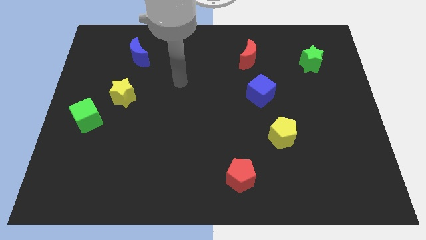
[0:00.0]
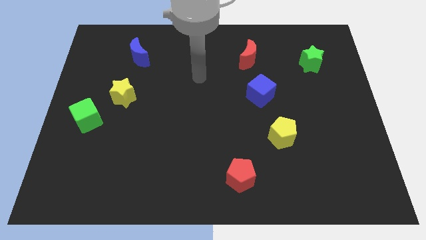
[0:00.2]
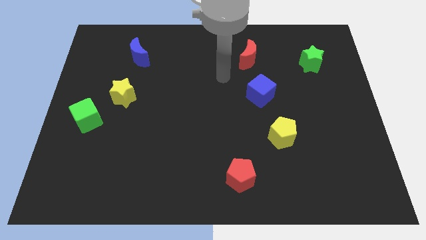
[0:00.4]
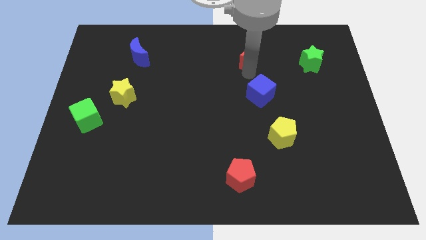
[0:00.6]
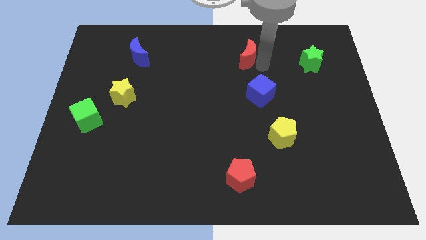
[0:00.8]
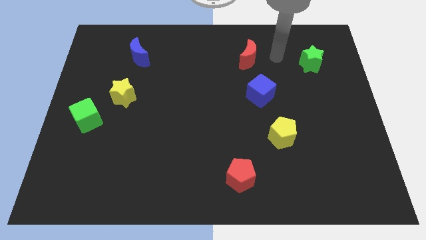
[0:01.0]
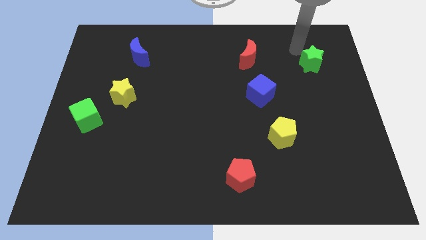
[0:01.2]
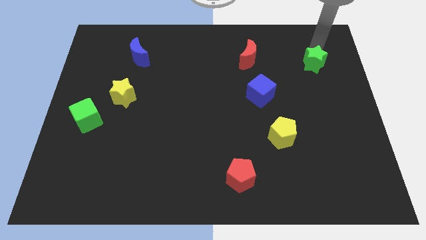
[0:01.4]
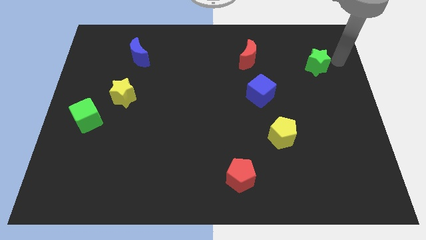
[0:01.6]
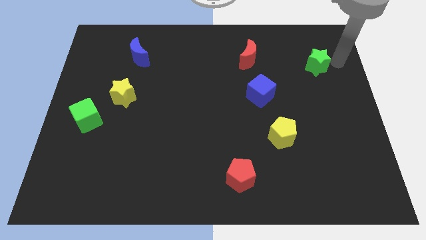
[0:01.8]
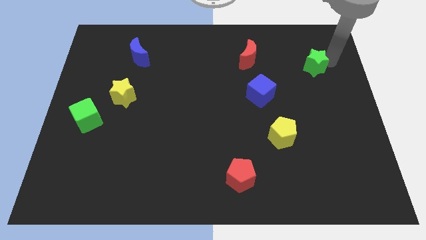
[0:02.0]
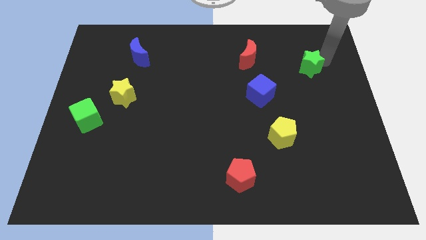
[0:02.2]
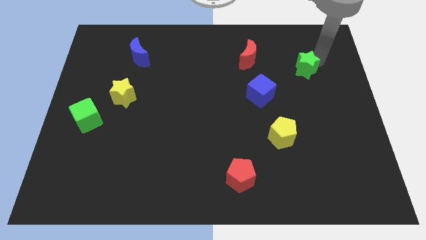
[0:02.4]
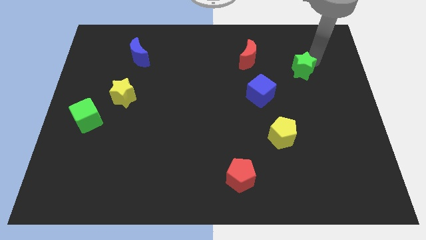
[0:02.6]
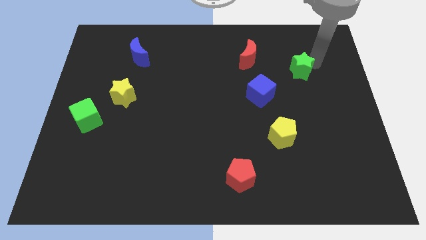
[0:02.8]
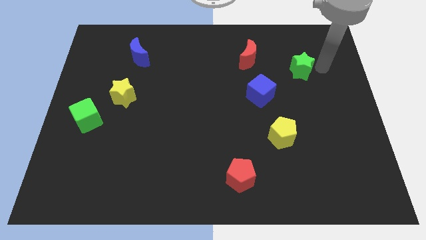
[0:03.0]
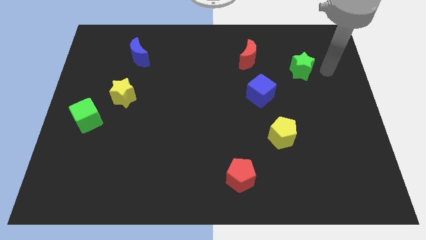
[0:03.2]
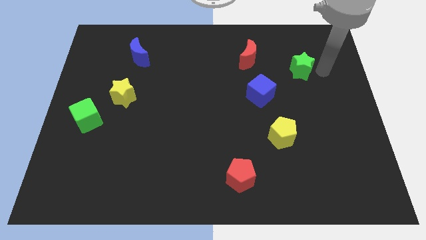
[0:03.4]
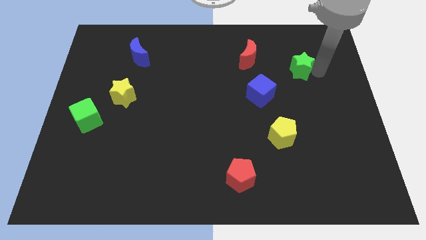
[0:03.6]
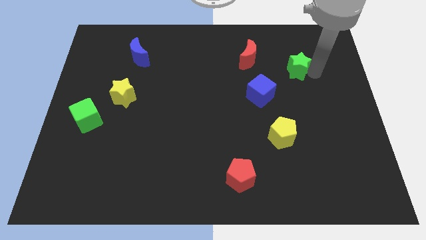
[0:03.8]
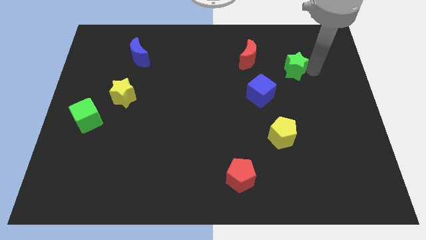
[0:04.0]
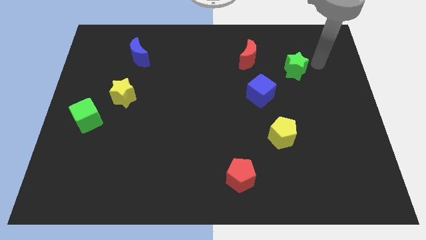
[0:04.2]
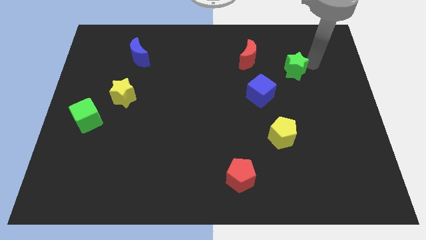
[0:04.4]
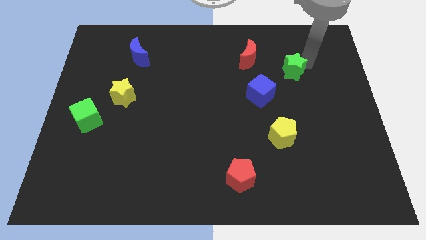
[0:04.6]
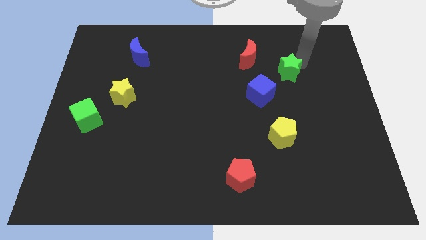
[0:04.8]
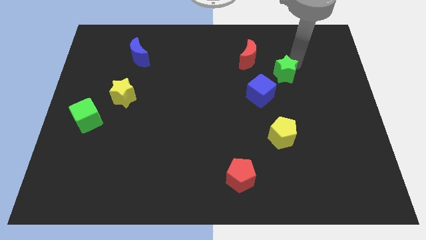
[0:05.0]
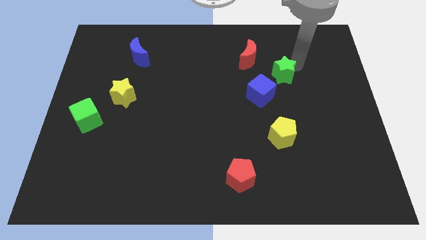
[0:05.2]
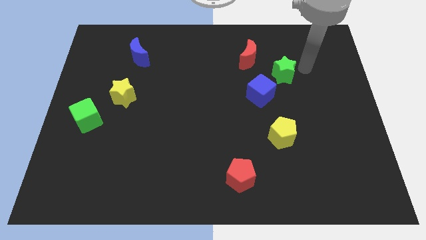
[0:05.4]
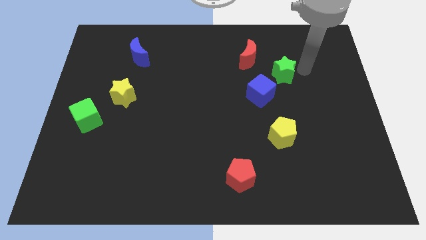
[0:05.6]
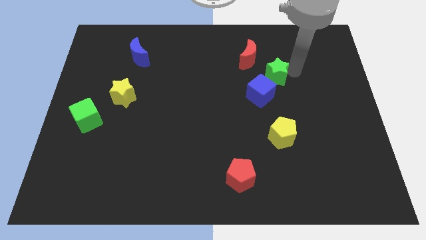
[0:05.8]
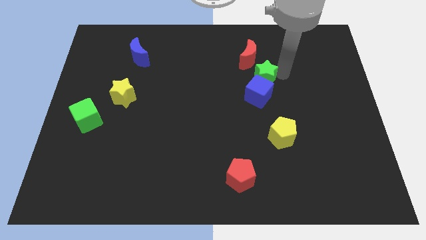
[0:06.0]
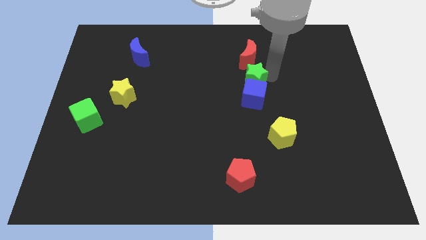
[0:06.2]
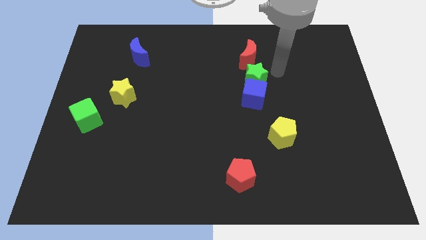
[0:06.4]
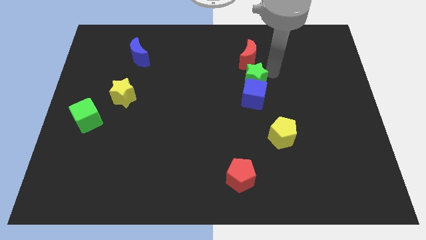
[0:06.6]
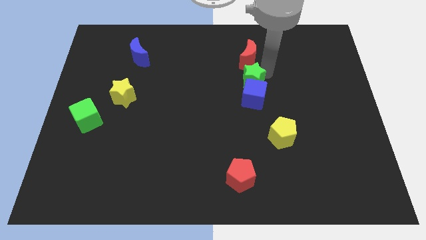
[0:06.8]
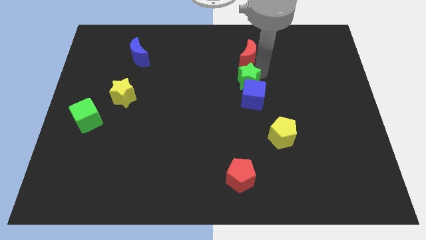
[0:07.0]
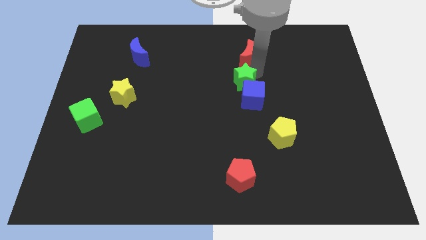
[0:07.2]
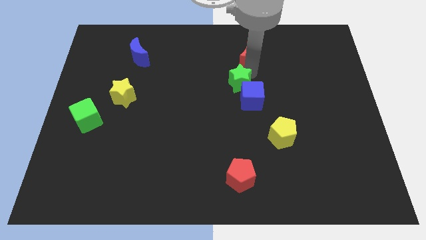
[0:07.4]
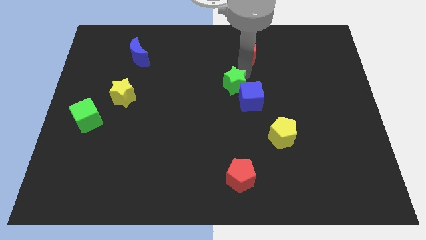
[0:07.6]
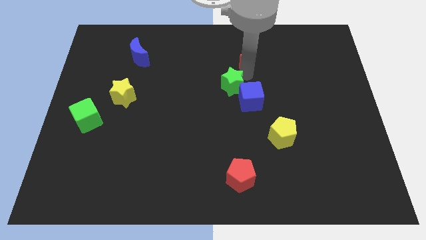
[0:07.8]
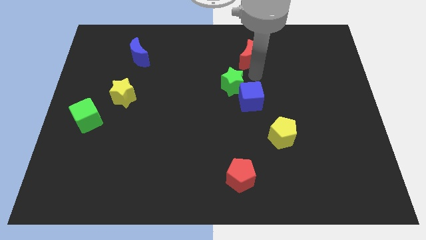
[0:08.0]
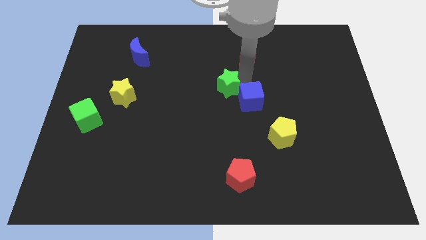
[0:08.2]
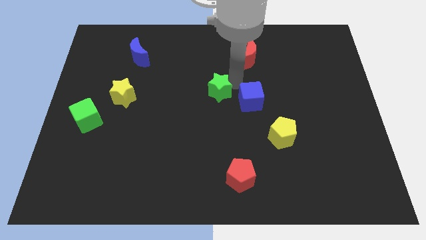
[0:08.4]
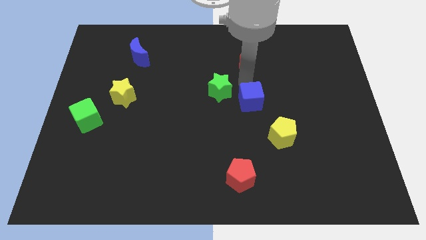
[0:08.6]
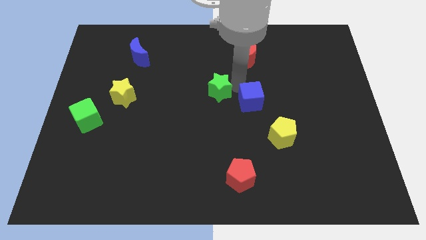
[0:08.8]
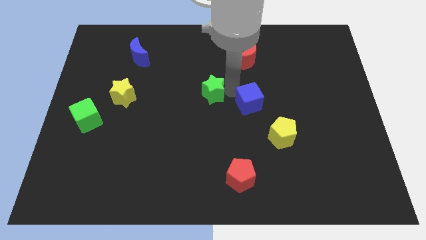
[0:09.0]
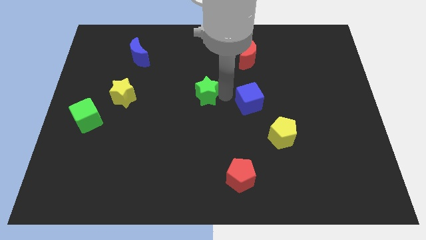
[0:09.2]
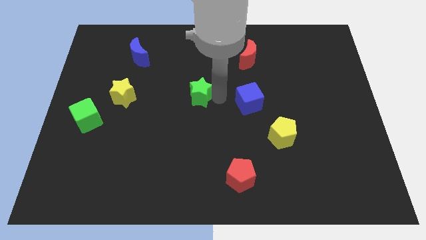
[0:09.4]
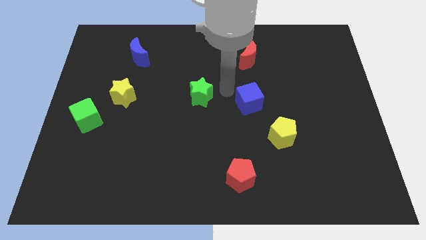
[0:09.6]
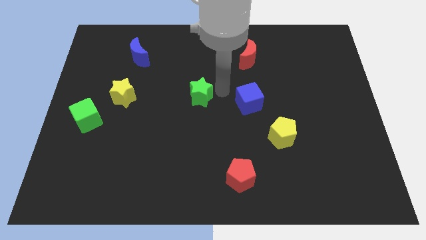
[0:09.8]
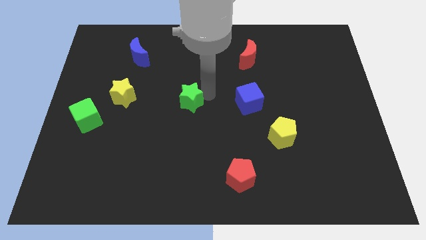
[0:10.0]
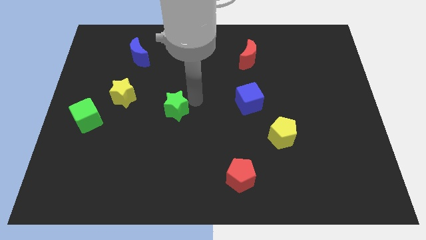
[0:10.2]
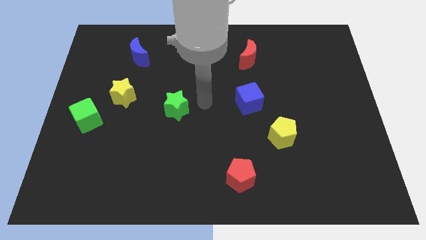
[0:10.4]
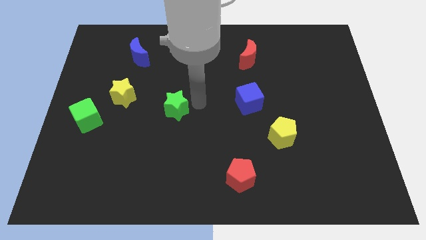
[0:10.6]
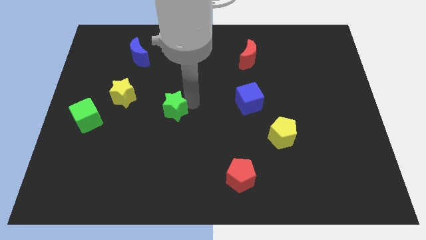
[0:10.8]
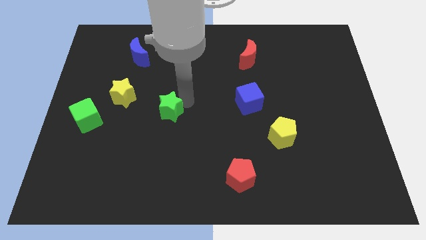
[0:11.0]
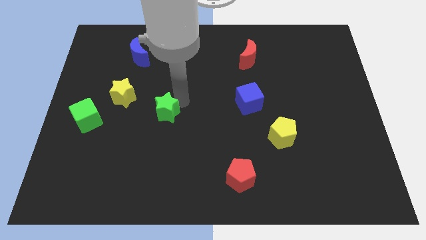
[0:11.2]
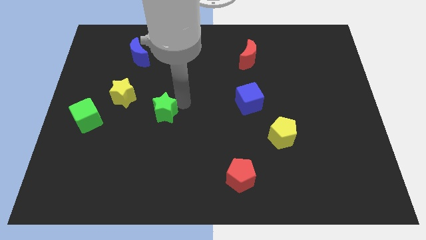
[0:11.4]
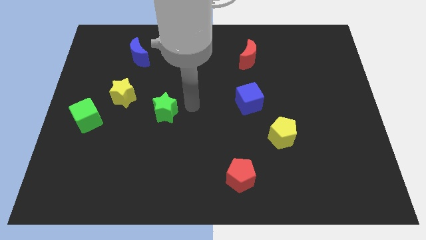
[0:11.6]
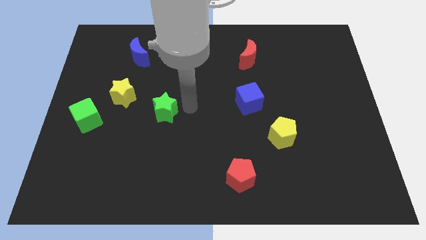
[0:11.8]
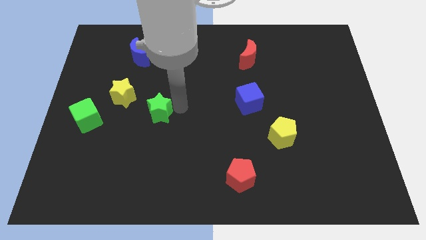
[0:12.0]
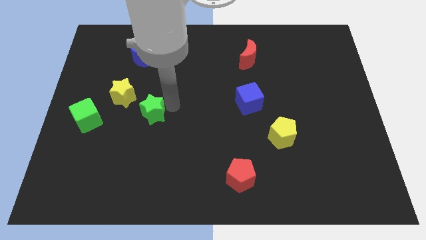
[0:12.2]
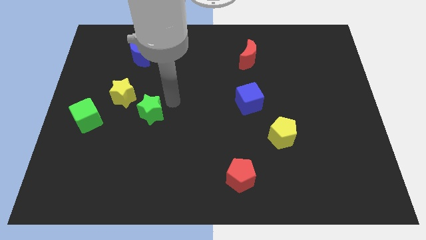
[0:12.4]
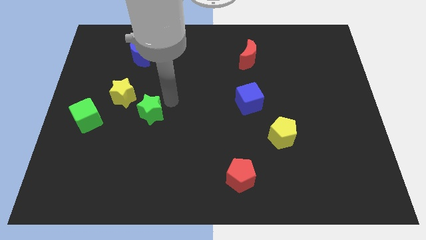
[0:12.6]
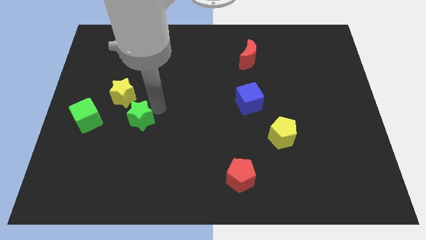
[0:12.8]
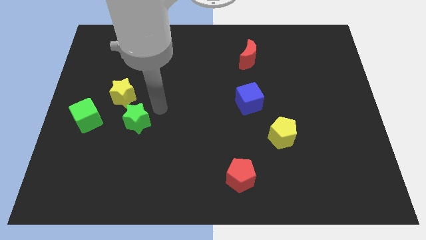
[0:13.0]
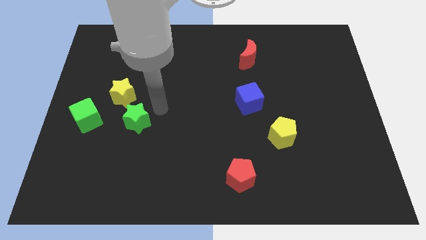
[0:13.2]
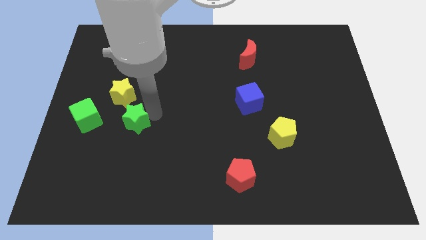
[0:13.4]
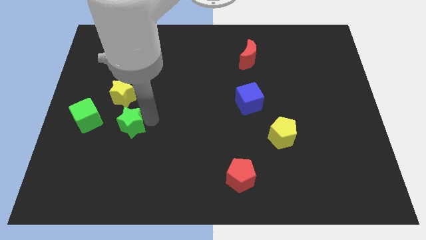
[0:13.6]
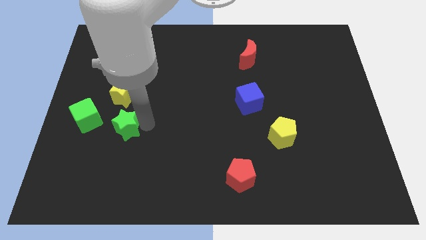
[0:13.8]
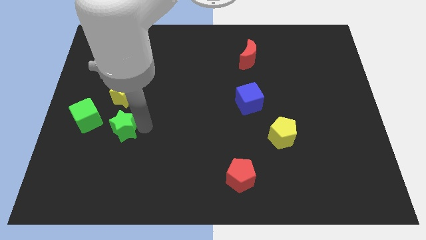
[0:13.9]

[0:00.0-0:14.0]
move the green star diagonally down and to the right of the green cube
